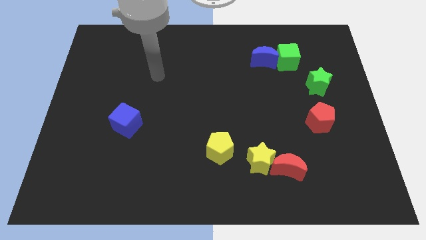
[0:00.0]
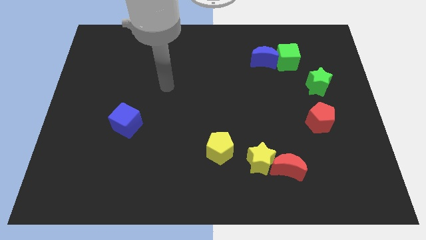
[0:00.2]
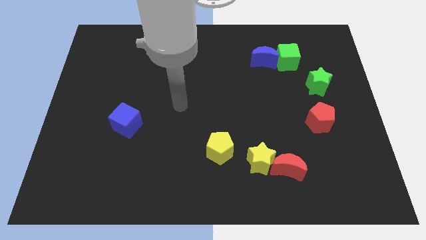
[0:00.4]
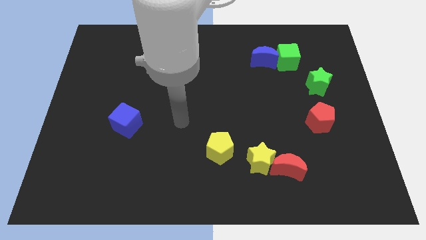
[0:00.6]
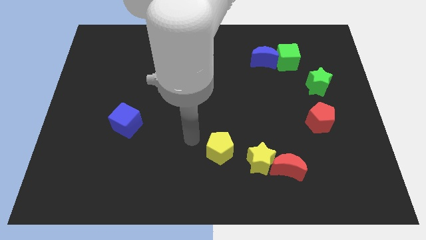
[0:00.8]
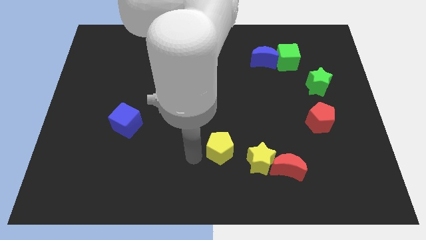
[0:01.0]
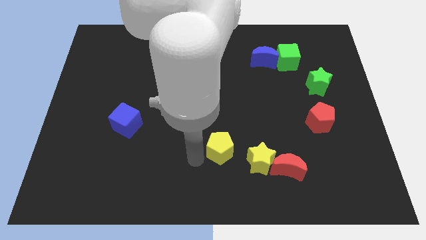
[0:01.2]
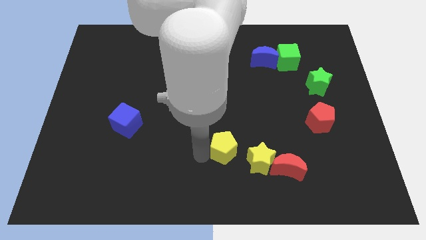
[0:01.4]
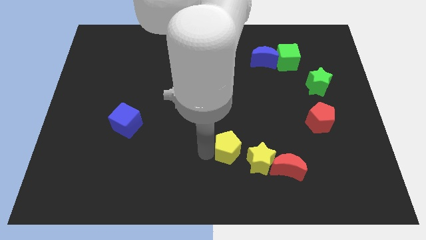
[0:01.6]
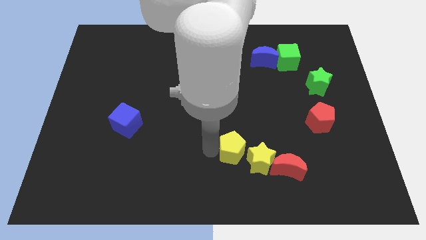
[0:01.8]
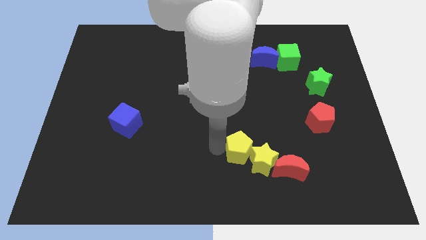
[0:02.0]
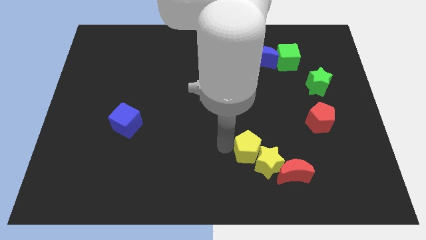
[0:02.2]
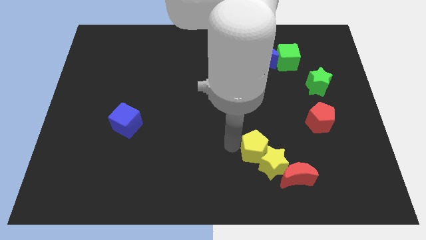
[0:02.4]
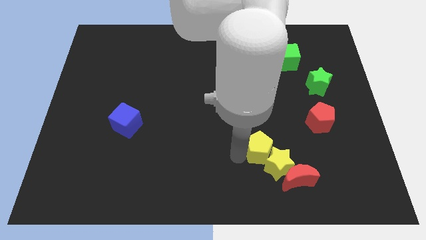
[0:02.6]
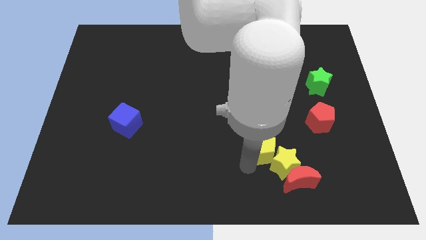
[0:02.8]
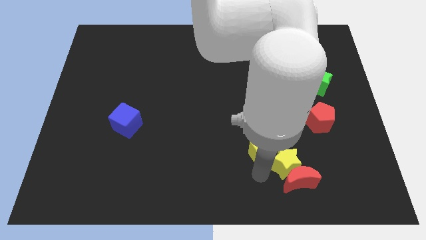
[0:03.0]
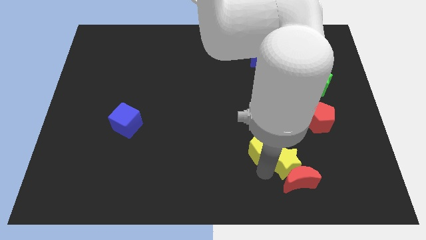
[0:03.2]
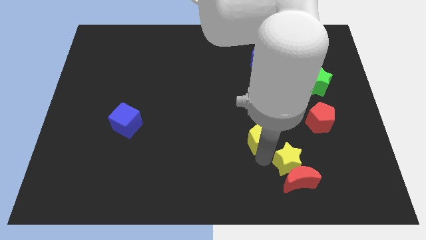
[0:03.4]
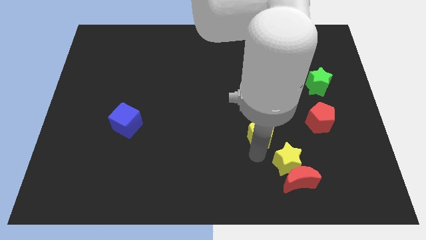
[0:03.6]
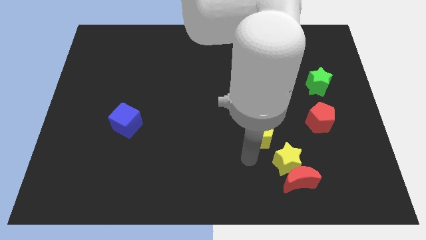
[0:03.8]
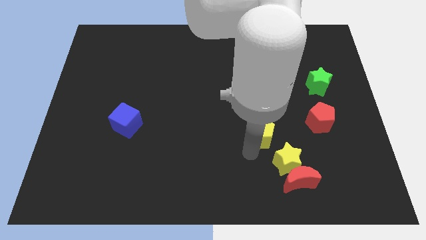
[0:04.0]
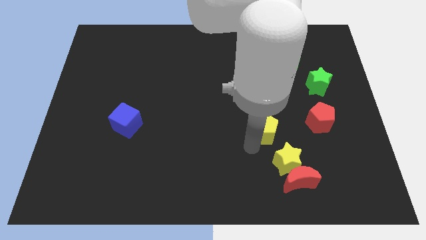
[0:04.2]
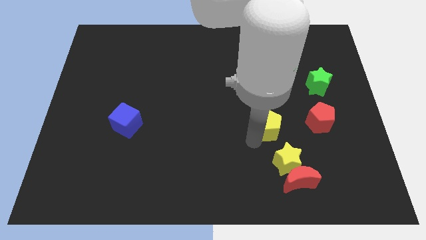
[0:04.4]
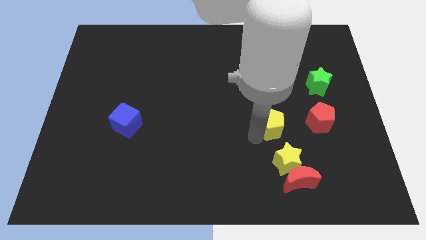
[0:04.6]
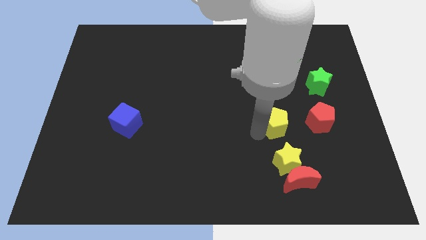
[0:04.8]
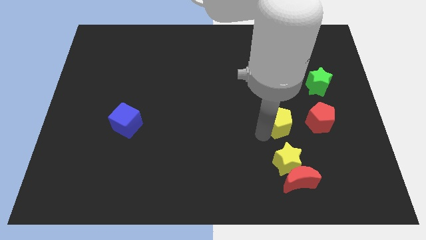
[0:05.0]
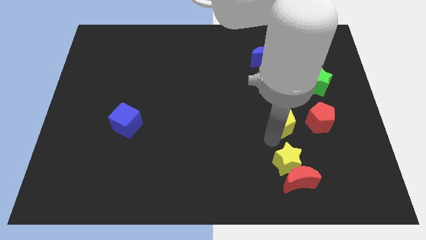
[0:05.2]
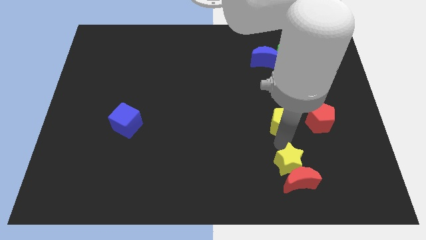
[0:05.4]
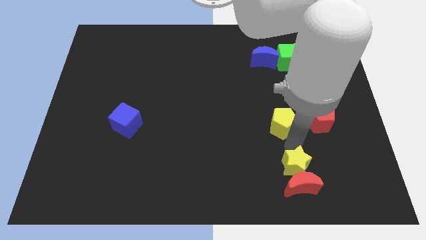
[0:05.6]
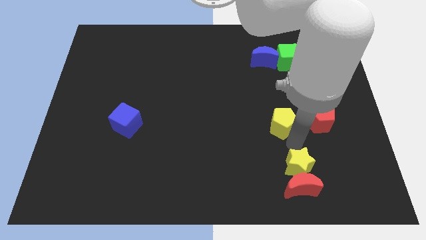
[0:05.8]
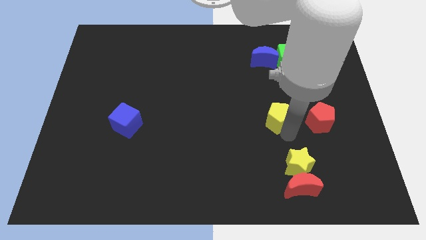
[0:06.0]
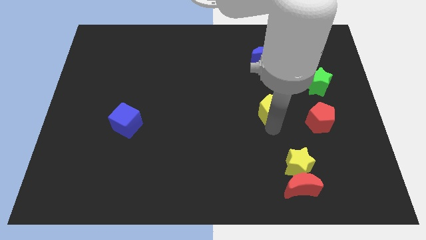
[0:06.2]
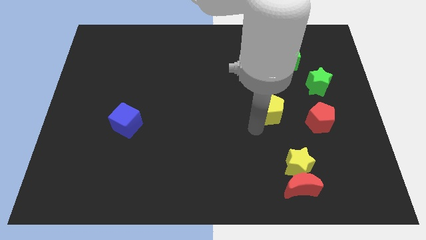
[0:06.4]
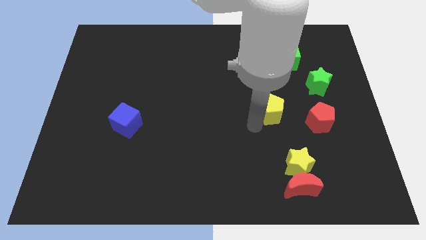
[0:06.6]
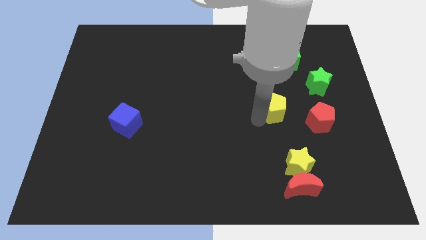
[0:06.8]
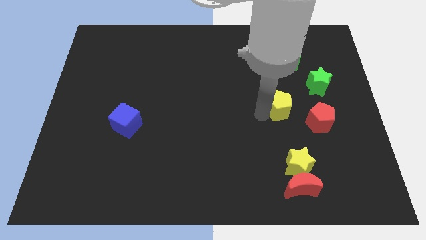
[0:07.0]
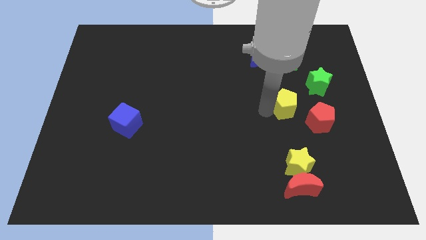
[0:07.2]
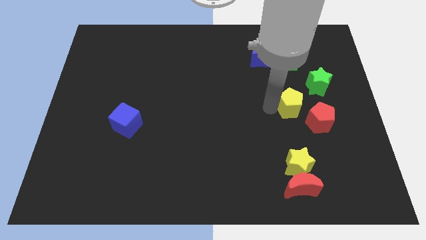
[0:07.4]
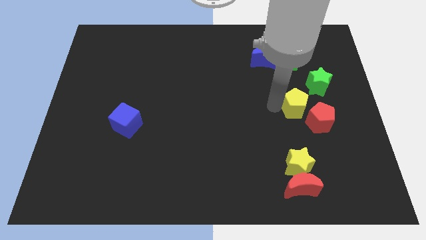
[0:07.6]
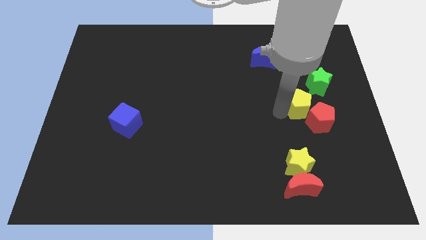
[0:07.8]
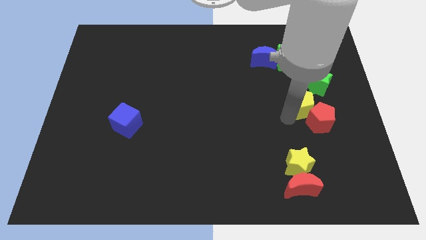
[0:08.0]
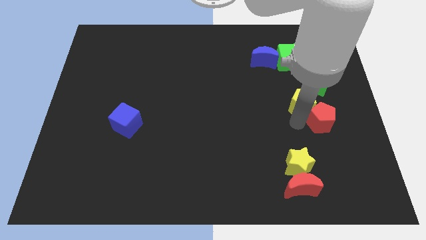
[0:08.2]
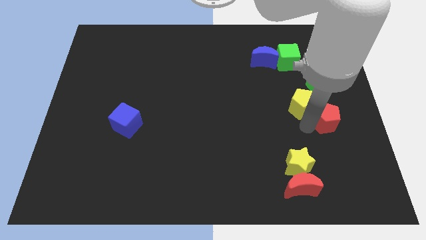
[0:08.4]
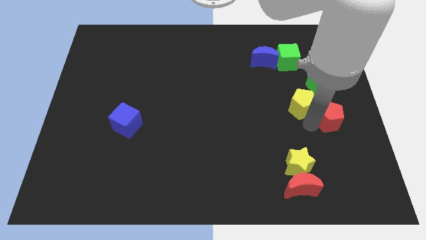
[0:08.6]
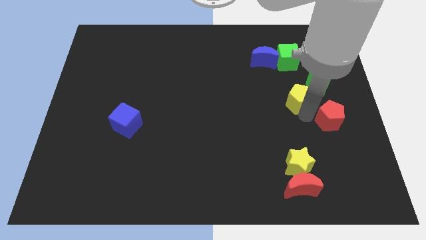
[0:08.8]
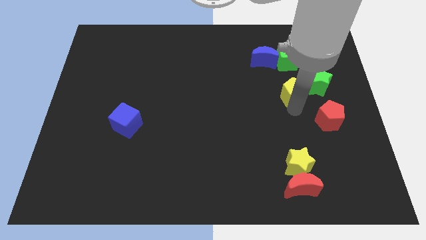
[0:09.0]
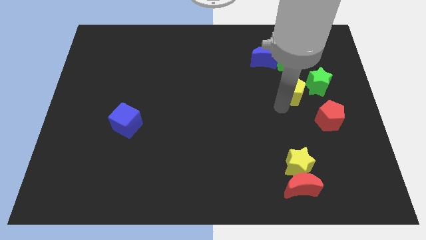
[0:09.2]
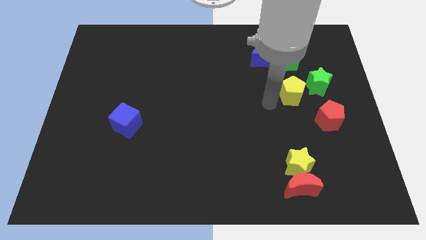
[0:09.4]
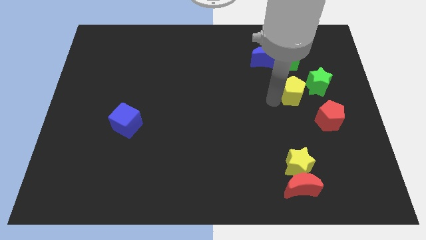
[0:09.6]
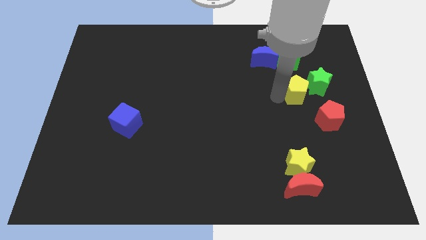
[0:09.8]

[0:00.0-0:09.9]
push the yellow pentagon to the green star
